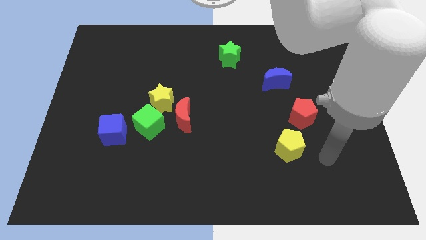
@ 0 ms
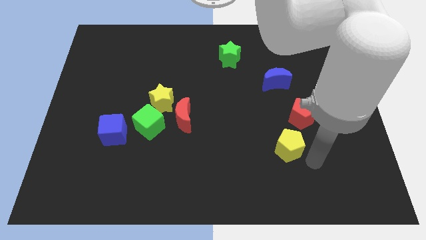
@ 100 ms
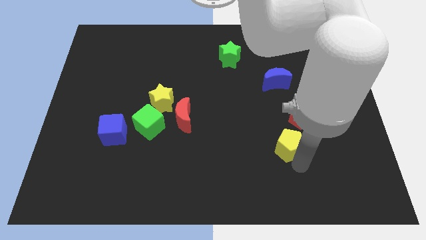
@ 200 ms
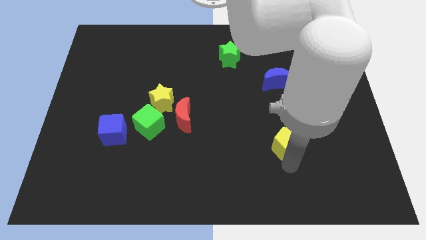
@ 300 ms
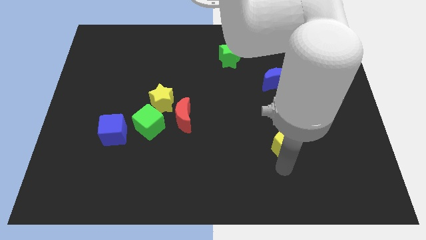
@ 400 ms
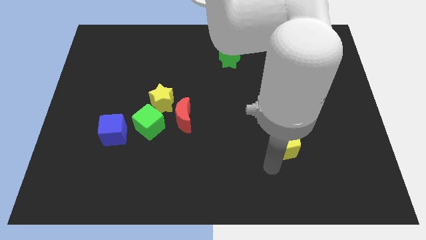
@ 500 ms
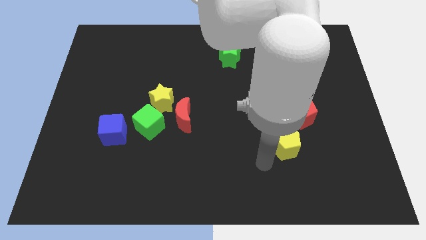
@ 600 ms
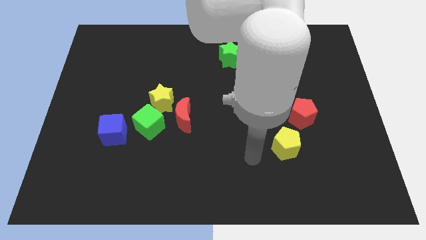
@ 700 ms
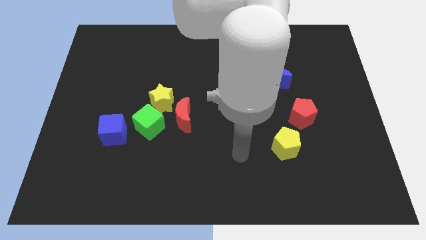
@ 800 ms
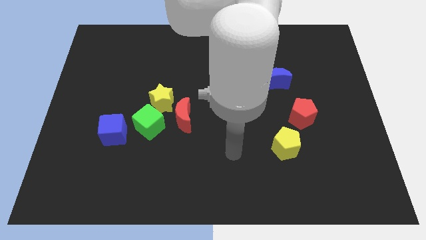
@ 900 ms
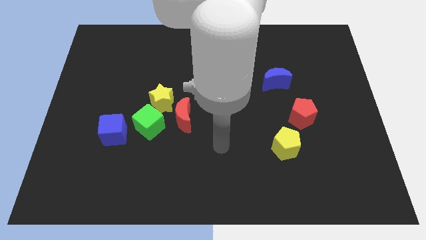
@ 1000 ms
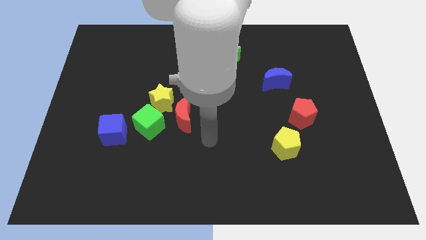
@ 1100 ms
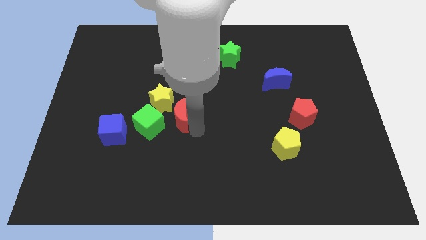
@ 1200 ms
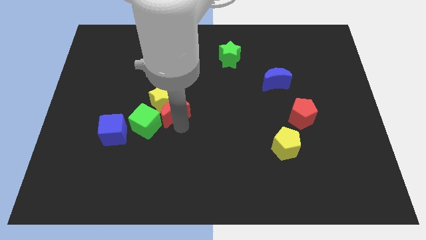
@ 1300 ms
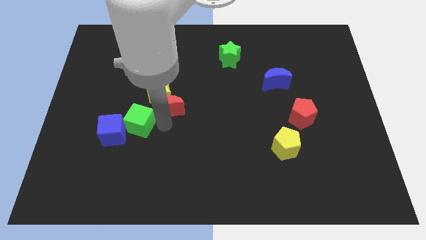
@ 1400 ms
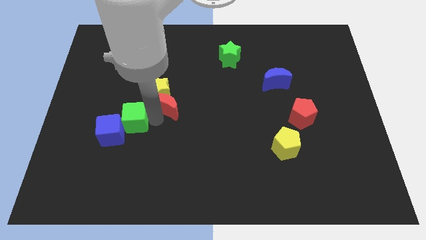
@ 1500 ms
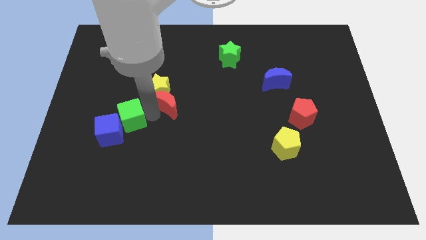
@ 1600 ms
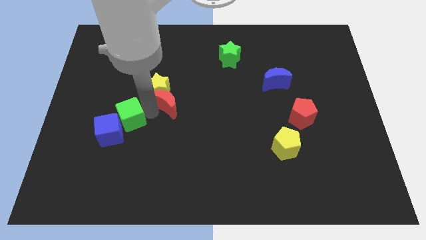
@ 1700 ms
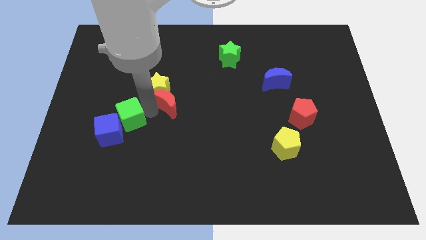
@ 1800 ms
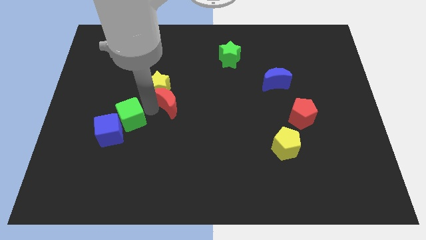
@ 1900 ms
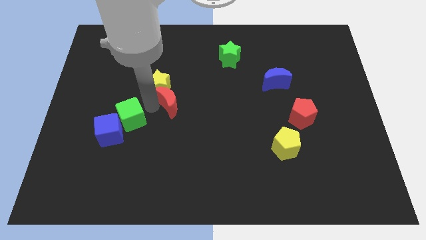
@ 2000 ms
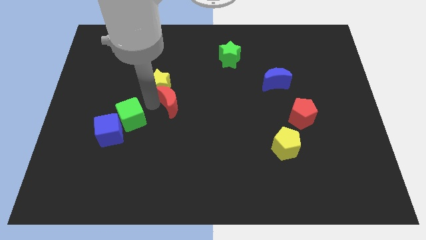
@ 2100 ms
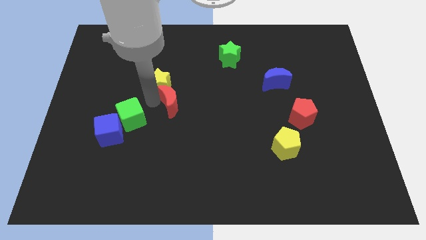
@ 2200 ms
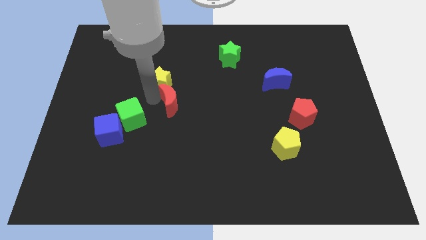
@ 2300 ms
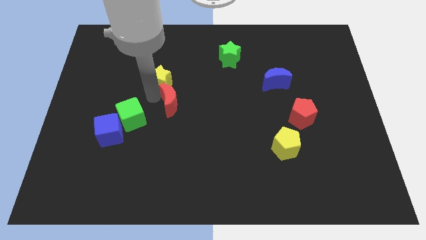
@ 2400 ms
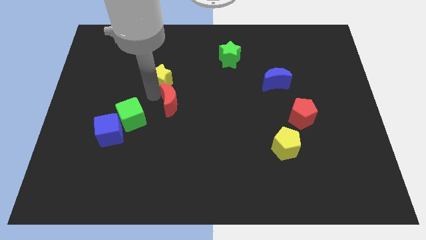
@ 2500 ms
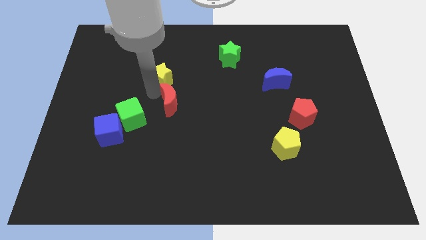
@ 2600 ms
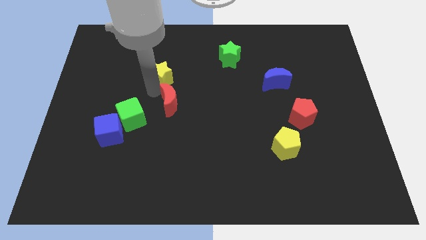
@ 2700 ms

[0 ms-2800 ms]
separate the yellow star from the red moon and green cube

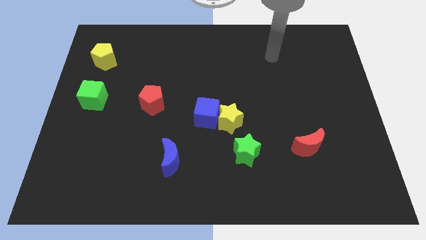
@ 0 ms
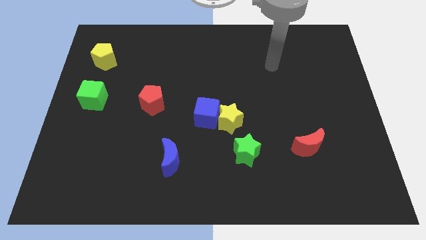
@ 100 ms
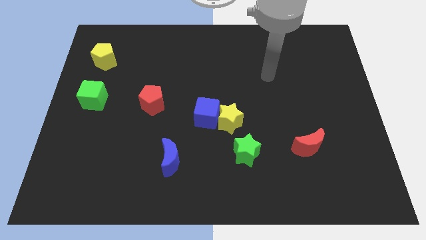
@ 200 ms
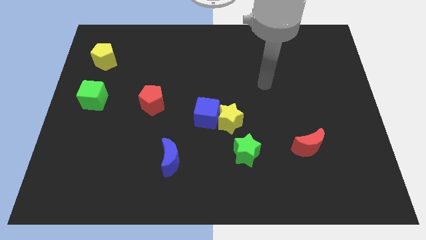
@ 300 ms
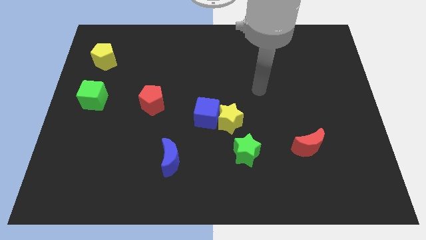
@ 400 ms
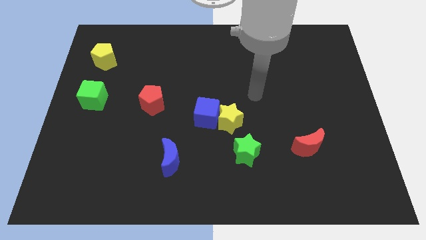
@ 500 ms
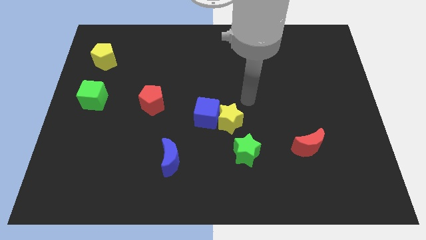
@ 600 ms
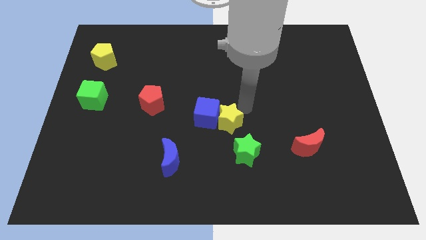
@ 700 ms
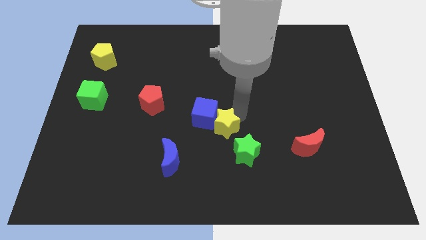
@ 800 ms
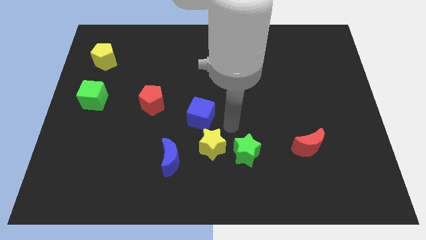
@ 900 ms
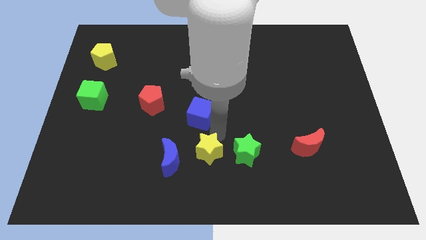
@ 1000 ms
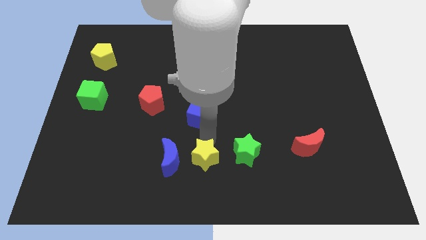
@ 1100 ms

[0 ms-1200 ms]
pull the blue cube apart from the yellow star

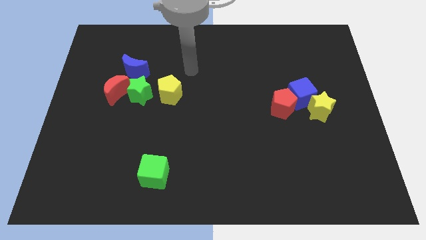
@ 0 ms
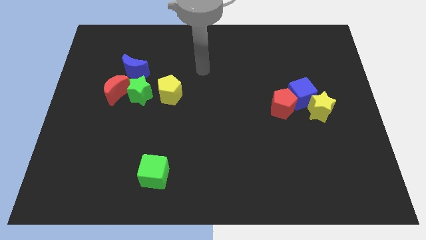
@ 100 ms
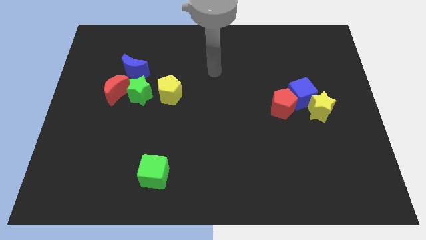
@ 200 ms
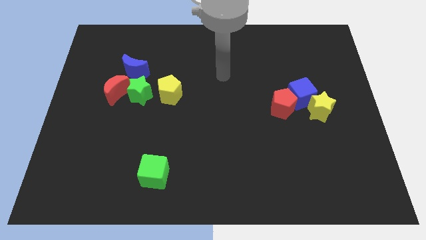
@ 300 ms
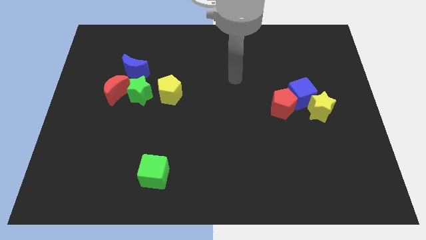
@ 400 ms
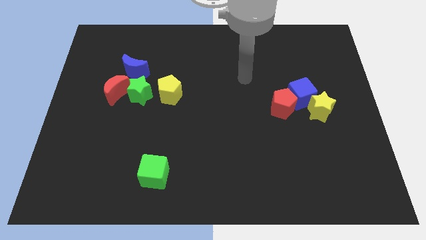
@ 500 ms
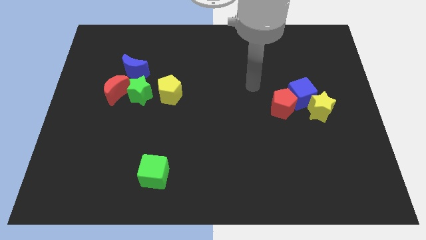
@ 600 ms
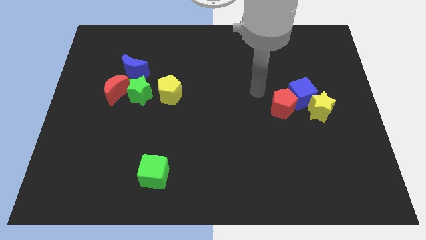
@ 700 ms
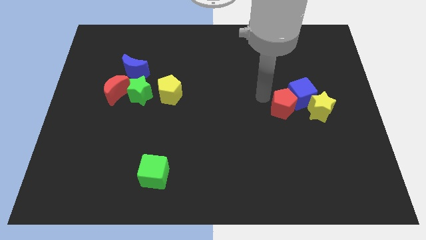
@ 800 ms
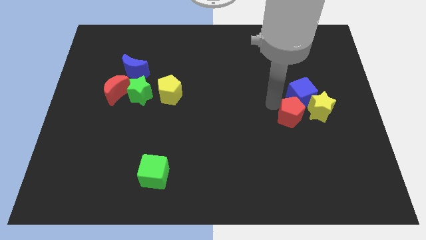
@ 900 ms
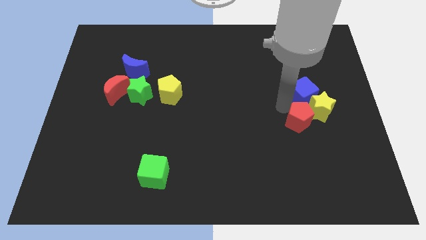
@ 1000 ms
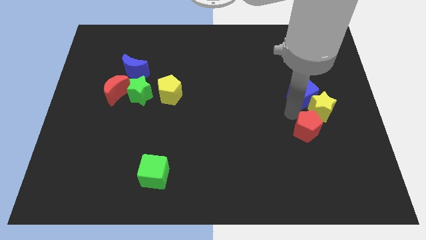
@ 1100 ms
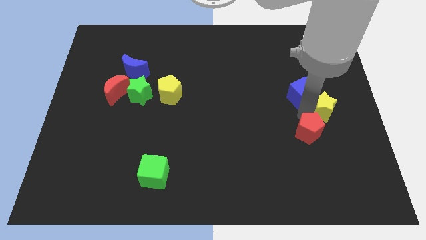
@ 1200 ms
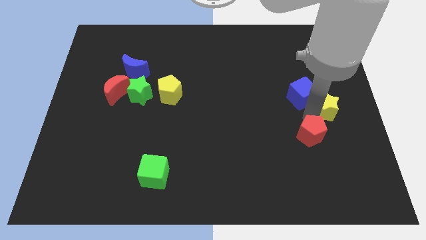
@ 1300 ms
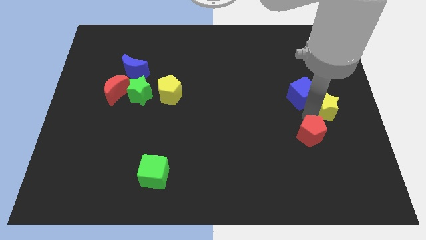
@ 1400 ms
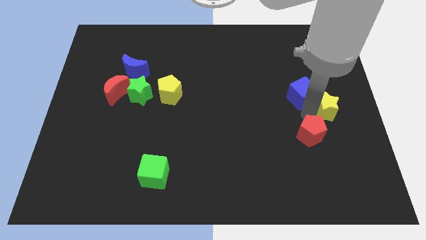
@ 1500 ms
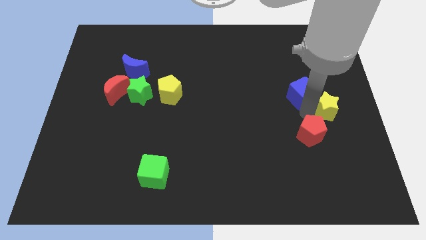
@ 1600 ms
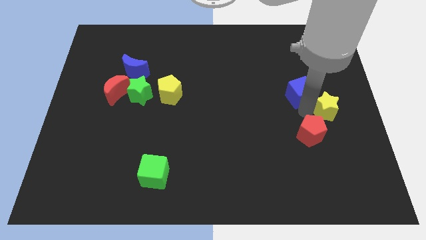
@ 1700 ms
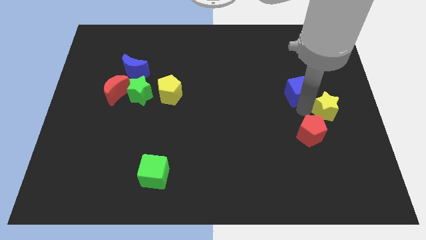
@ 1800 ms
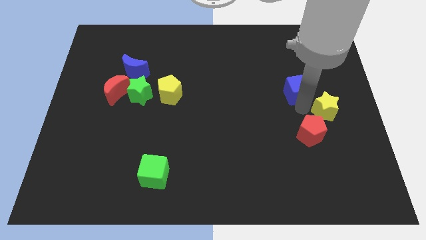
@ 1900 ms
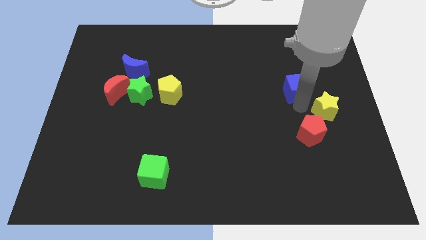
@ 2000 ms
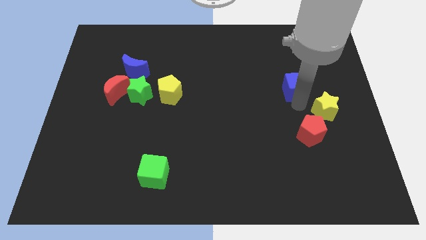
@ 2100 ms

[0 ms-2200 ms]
pull the blue cube apart from the yellow star and red pentagon

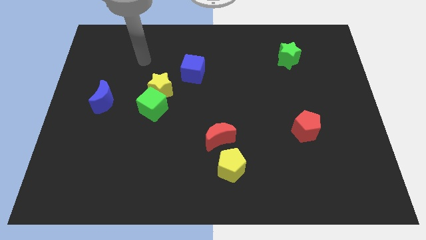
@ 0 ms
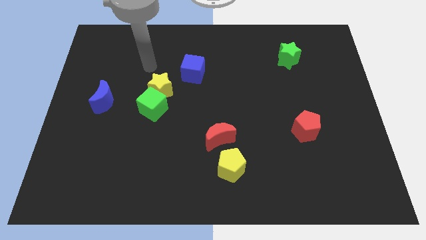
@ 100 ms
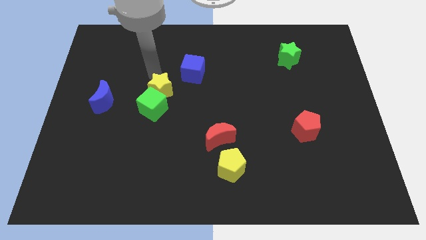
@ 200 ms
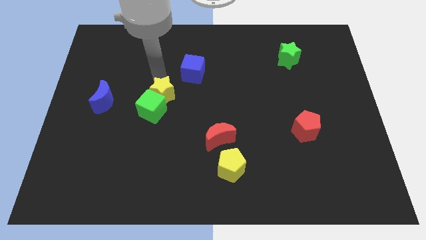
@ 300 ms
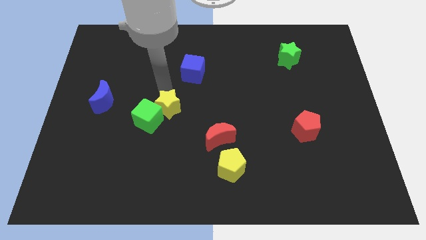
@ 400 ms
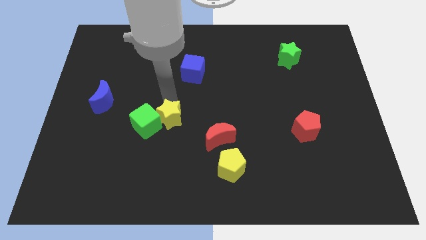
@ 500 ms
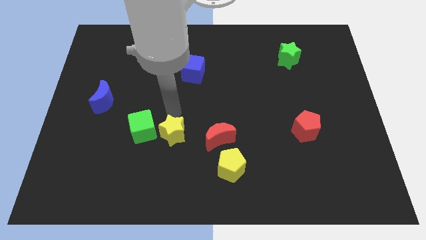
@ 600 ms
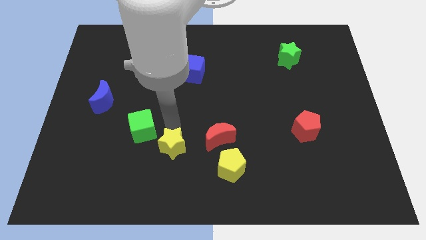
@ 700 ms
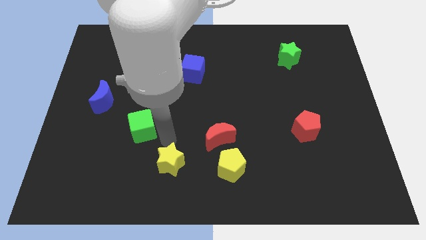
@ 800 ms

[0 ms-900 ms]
separate the green cube from the yellow star

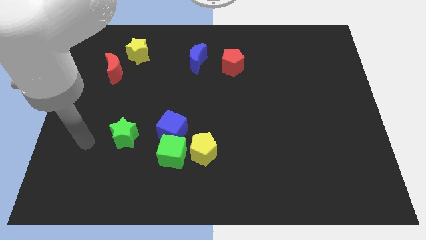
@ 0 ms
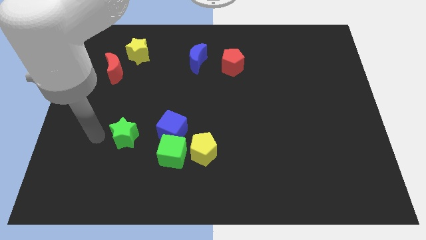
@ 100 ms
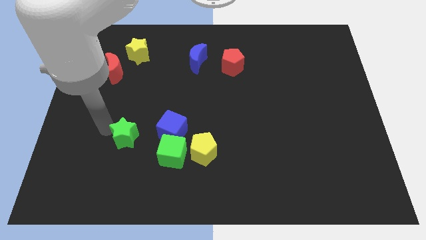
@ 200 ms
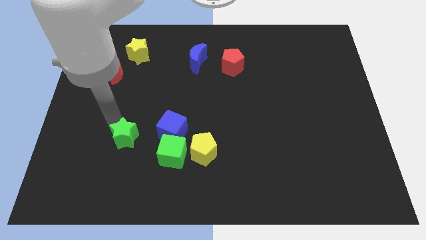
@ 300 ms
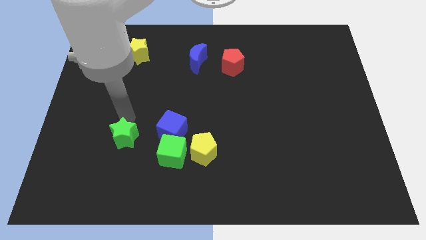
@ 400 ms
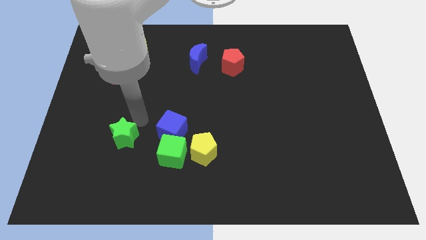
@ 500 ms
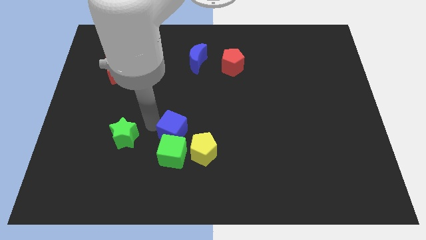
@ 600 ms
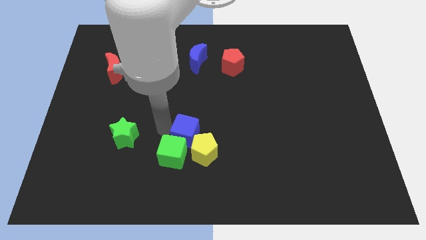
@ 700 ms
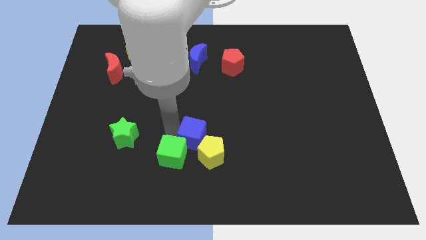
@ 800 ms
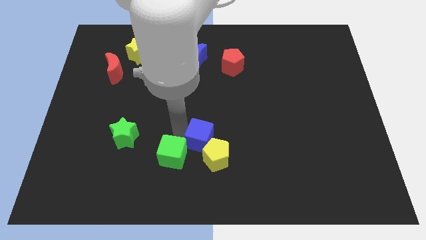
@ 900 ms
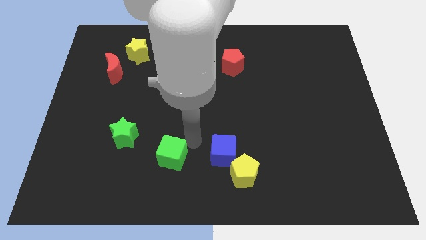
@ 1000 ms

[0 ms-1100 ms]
move the green cube away from the blue cube and yellow pentagon

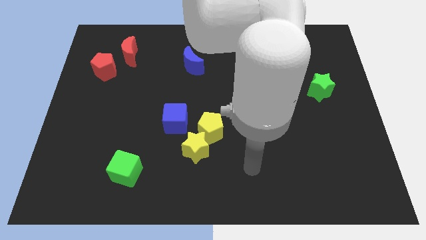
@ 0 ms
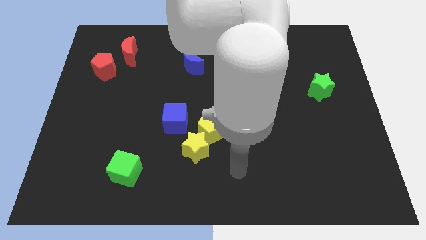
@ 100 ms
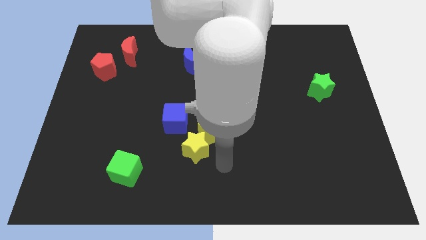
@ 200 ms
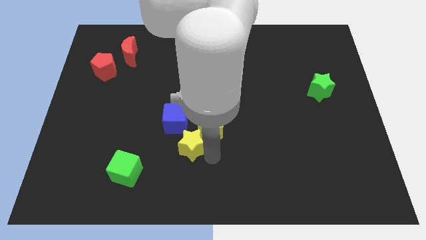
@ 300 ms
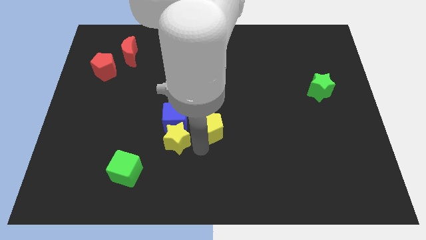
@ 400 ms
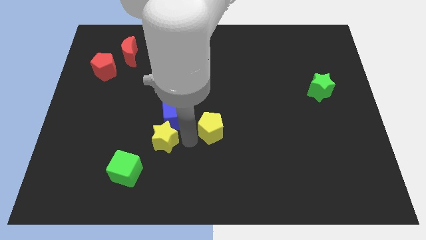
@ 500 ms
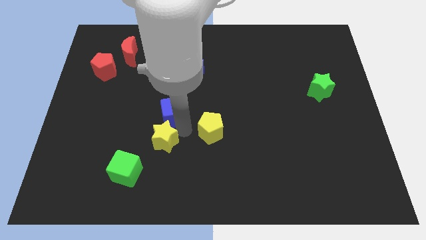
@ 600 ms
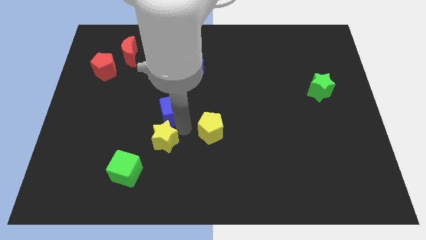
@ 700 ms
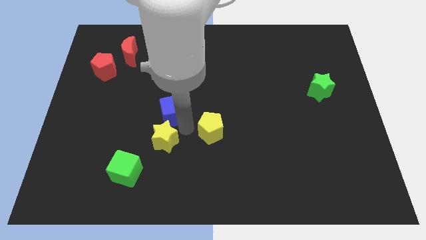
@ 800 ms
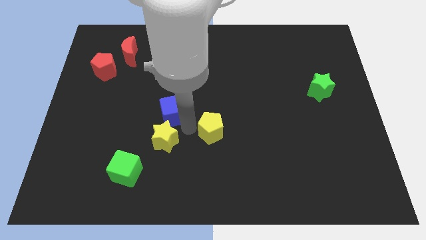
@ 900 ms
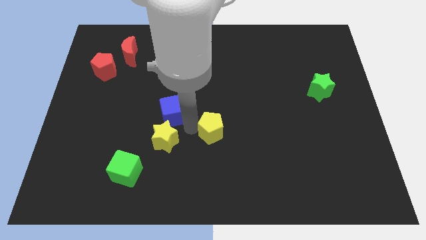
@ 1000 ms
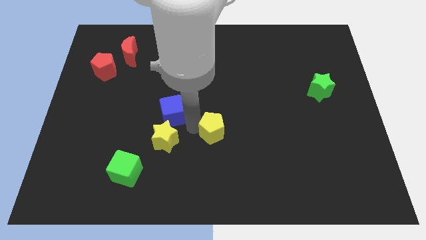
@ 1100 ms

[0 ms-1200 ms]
move the yellow pentagon away from the yellow star and blue cube

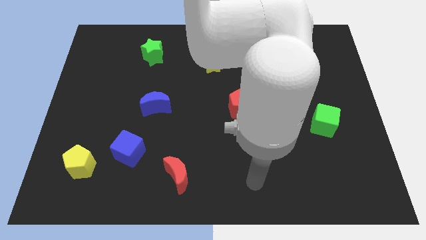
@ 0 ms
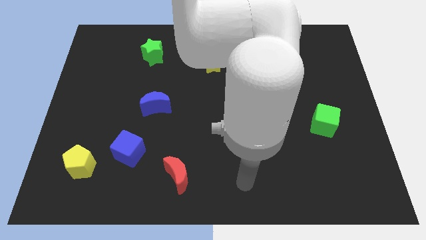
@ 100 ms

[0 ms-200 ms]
move the blue cube away from the yellow pentagon
